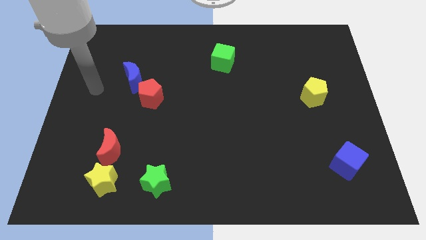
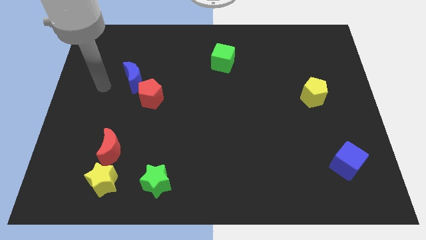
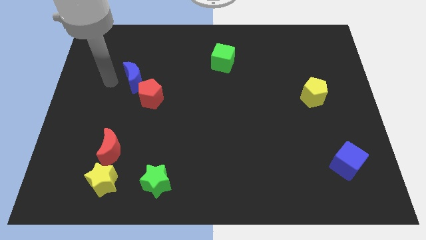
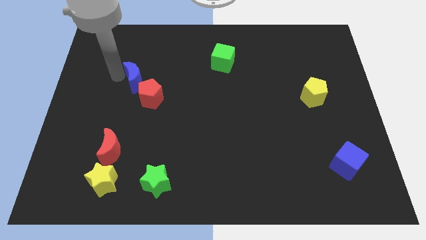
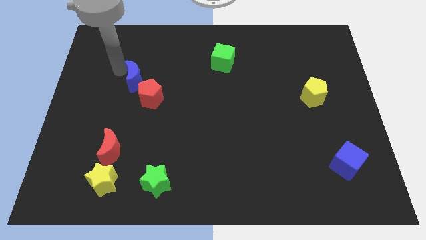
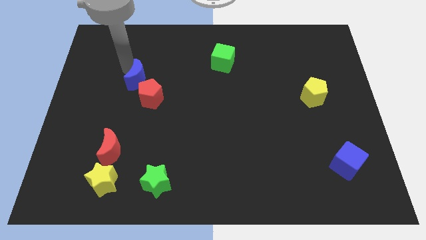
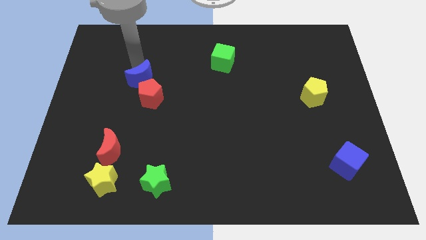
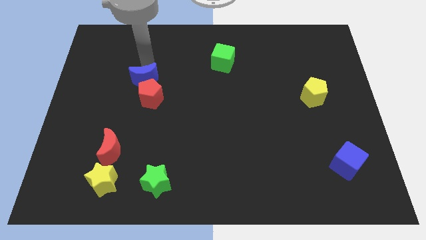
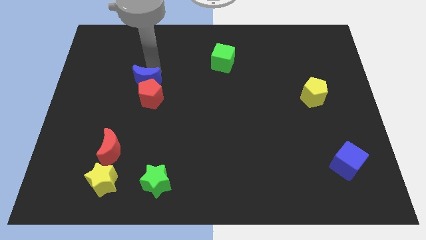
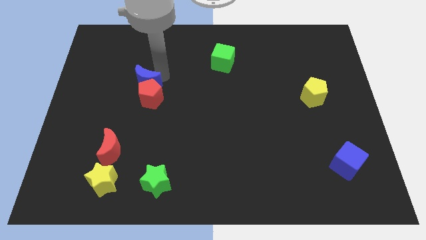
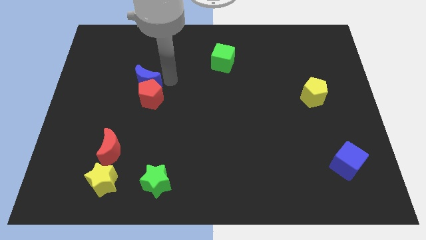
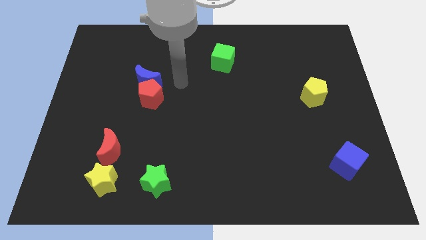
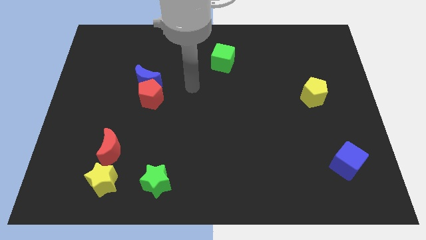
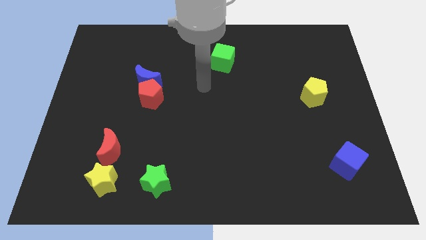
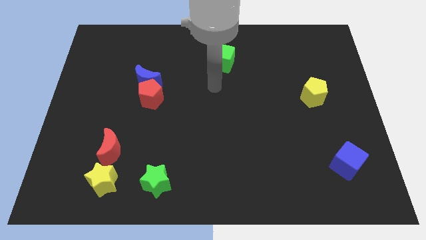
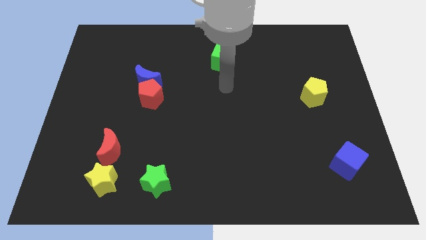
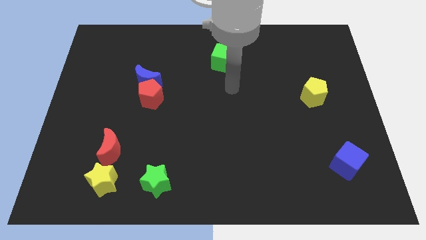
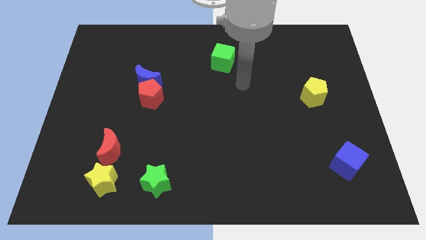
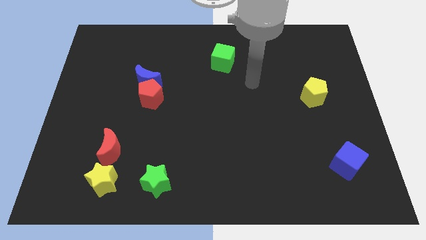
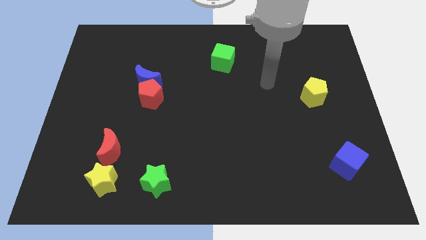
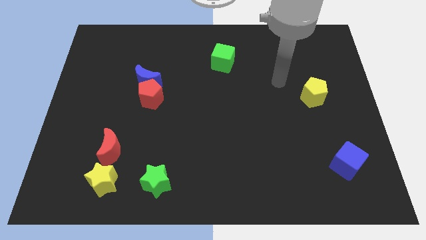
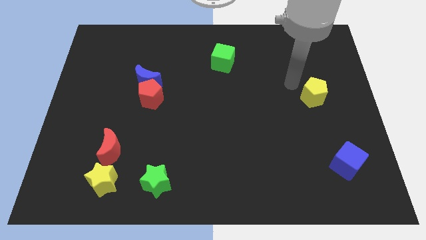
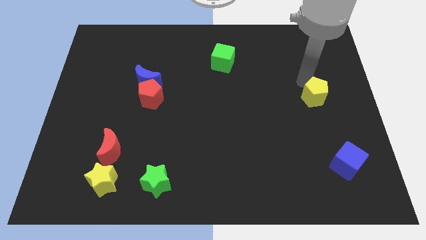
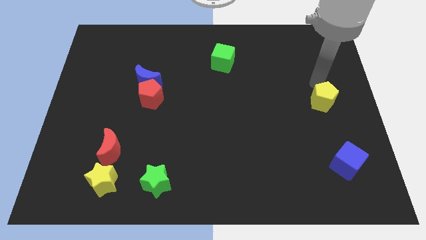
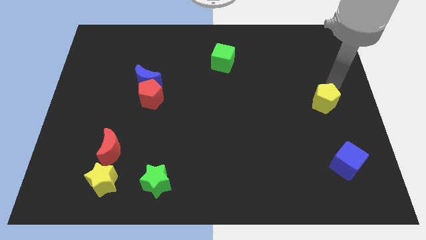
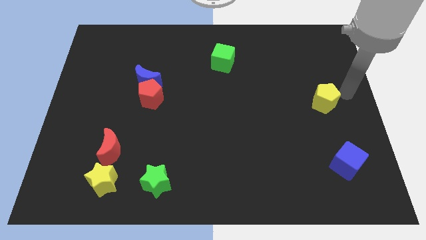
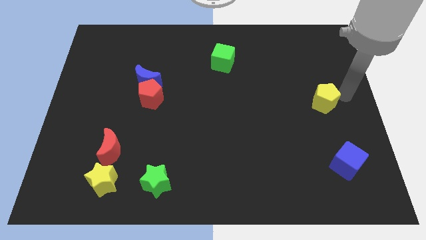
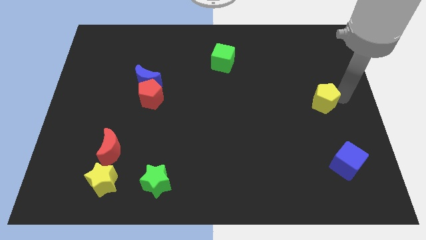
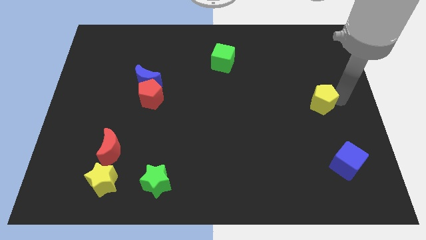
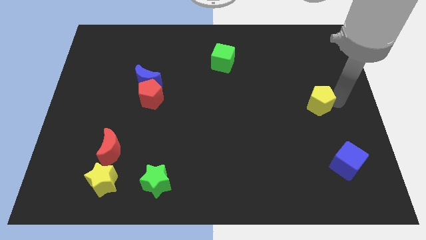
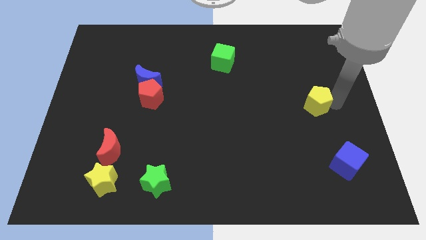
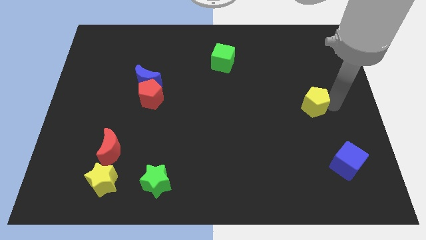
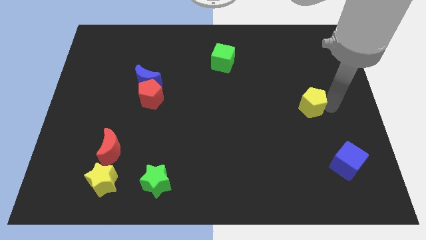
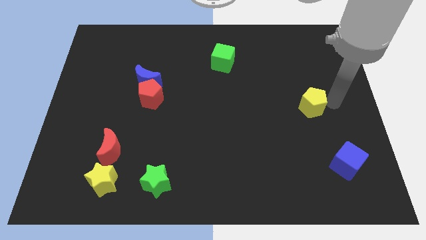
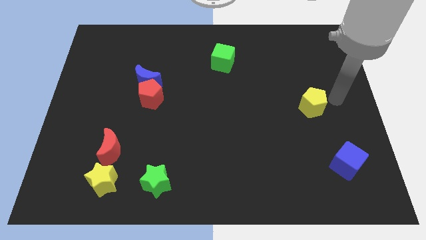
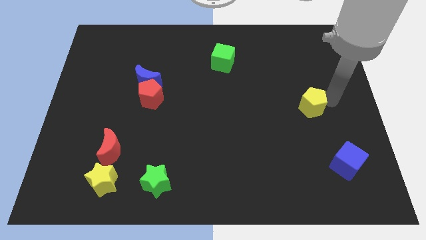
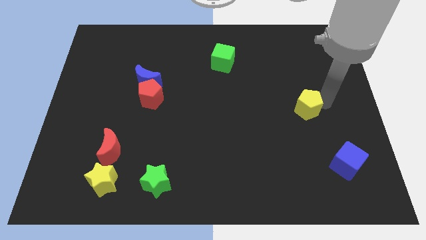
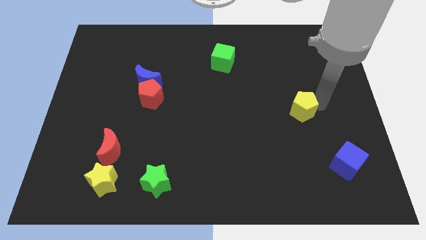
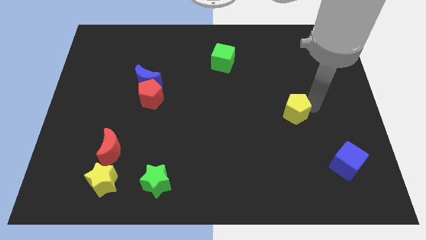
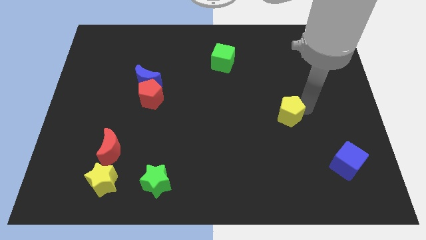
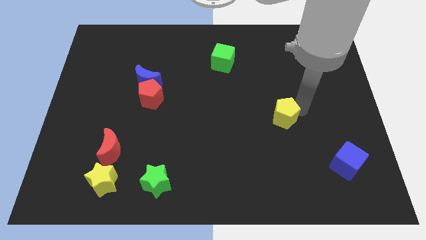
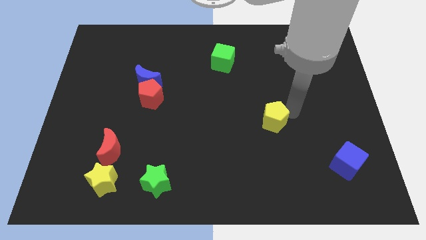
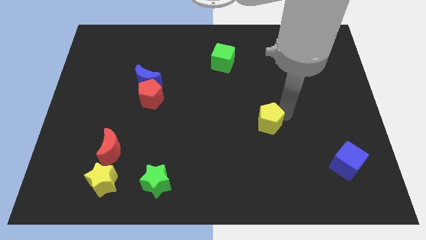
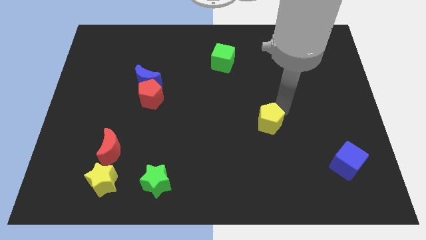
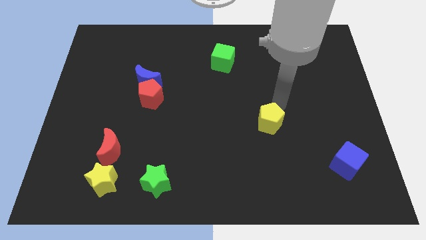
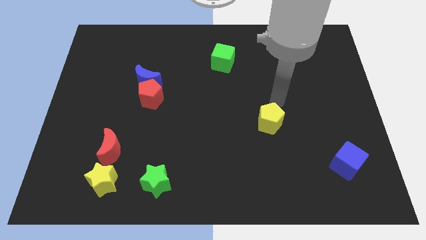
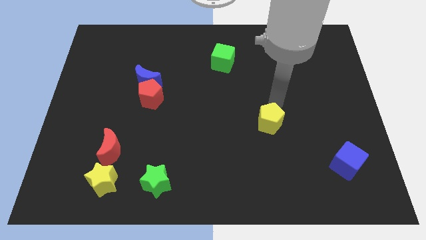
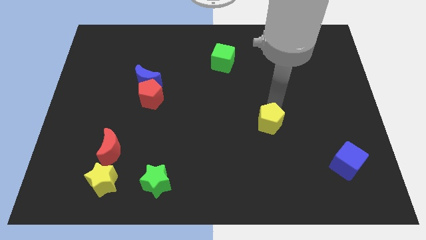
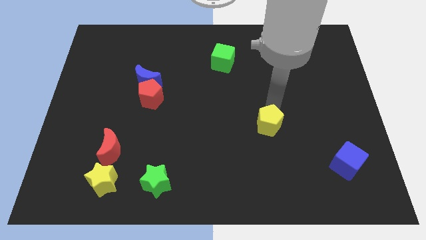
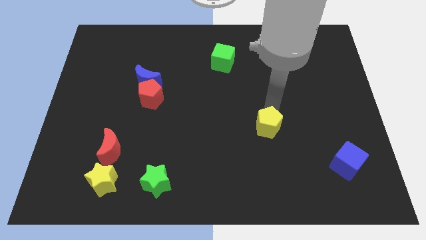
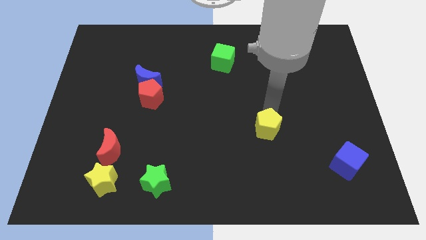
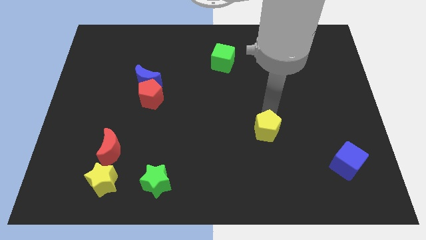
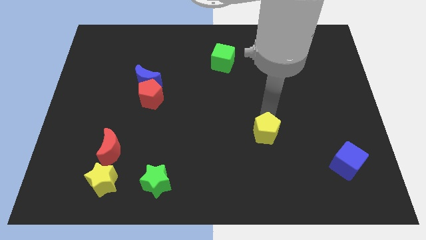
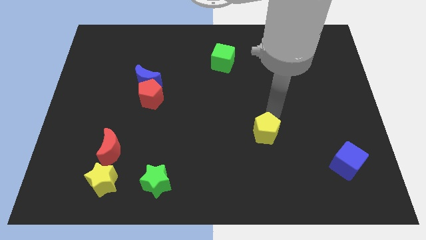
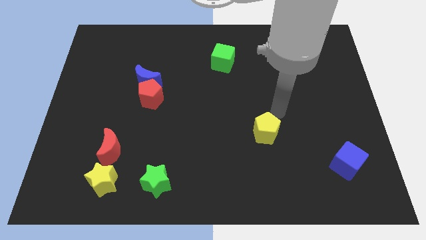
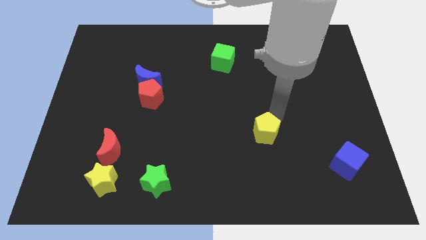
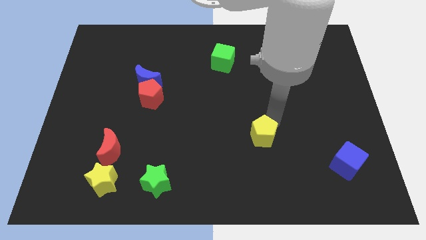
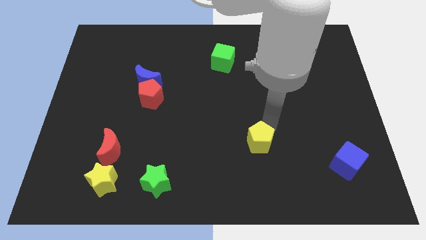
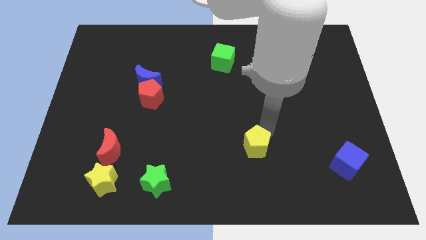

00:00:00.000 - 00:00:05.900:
move the yellow pentagon downwards and then left

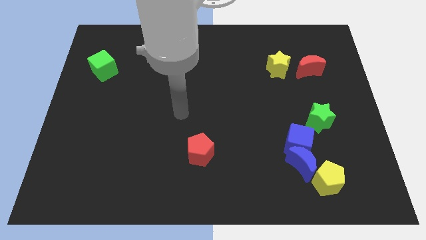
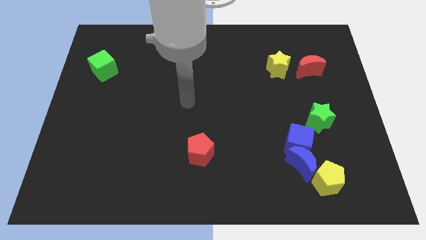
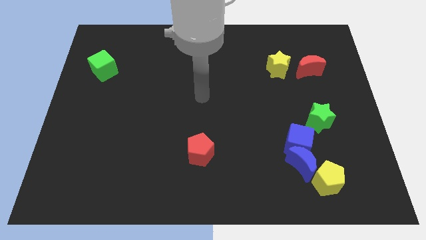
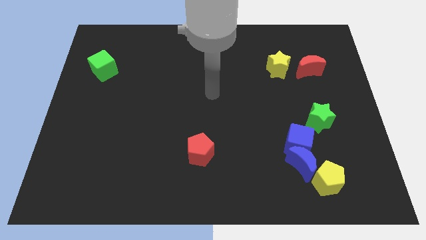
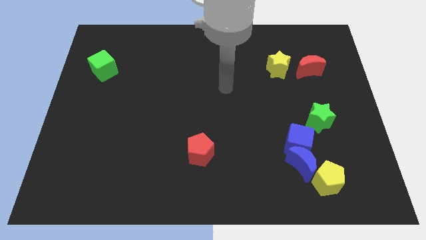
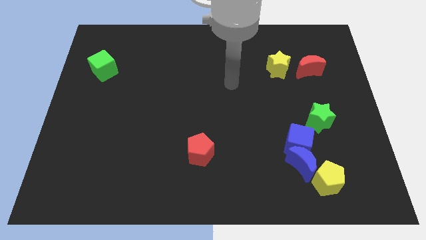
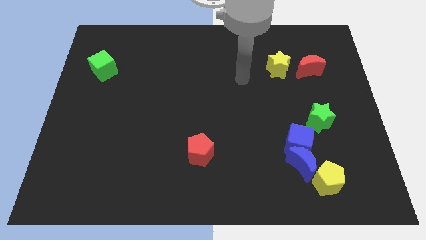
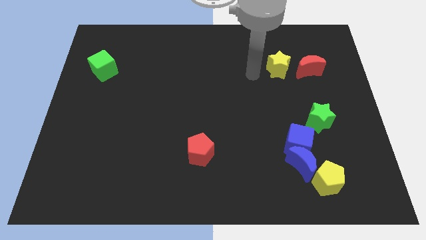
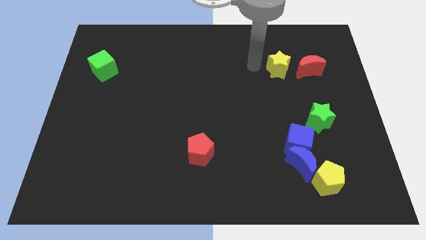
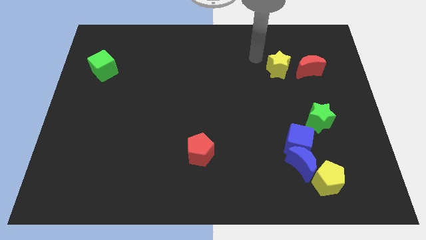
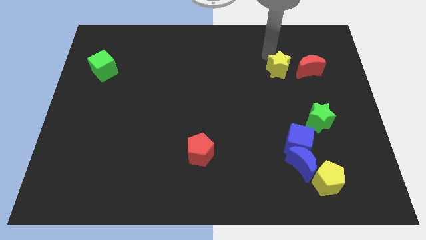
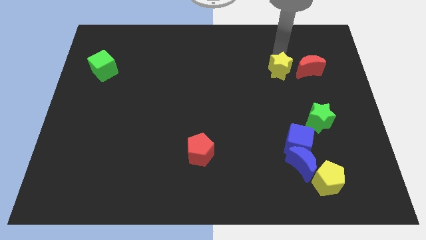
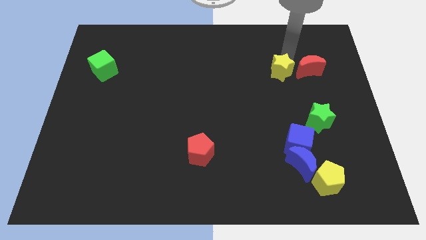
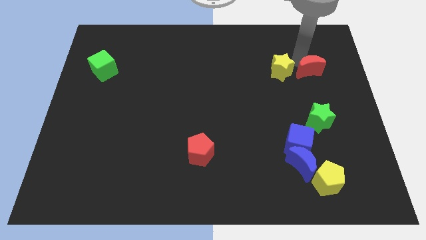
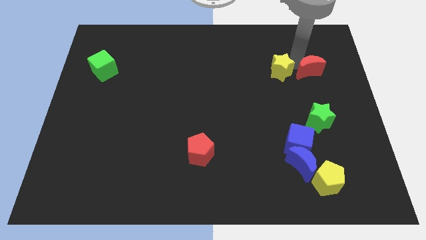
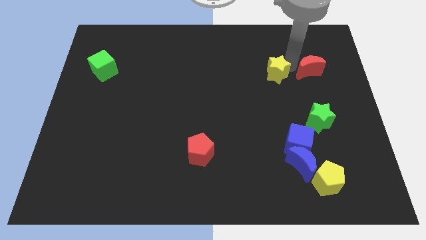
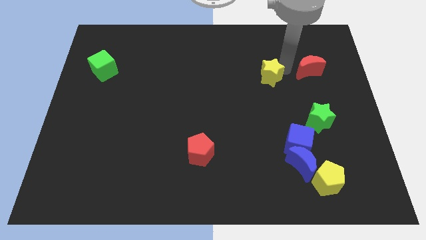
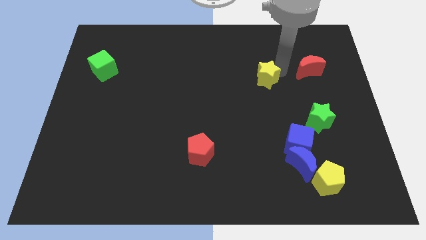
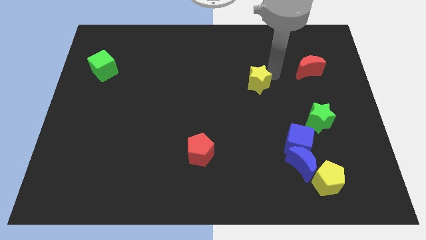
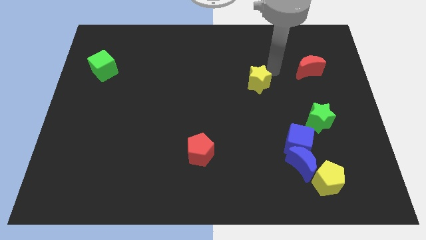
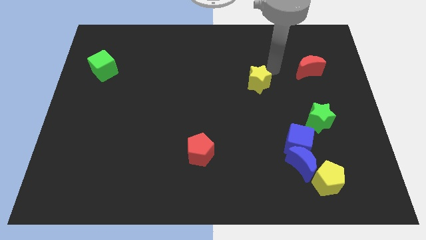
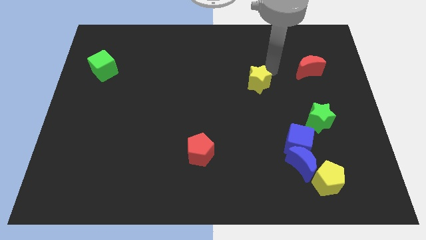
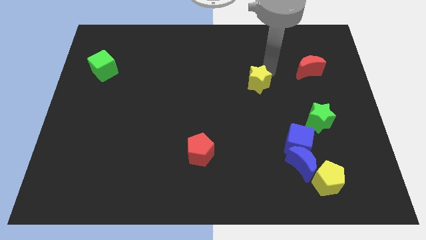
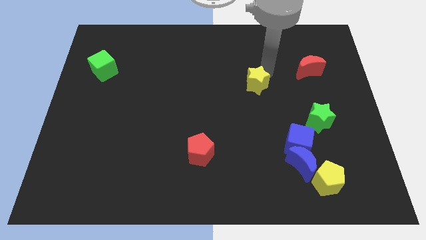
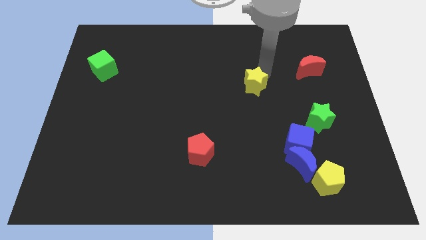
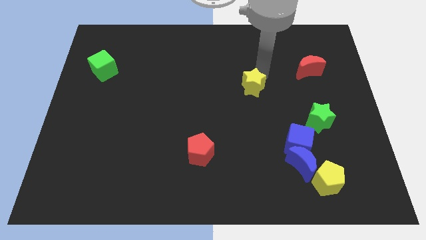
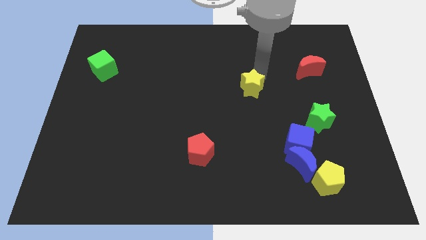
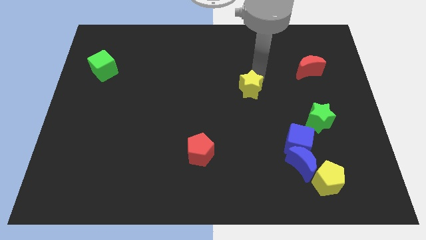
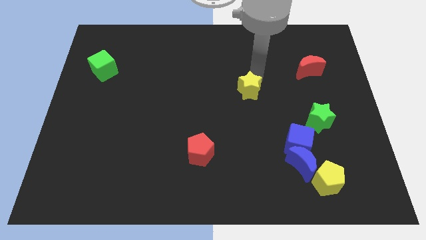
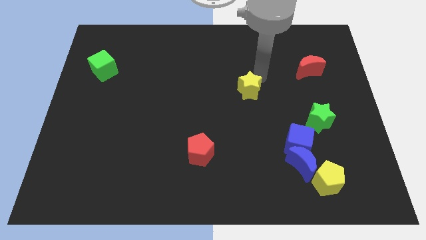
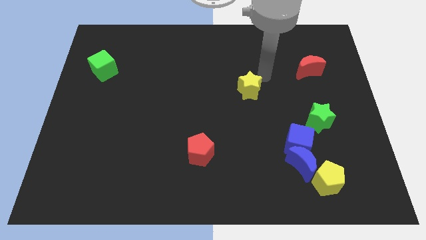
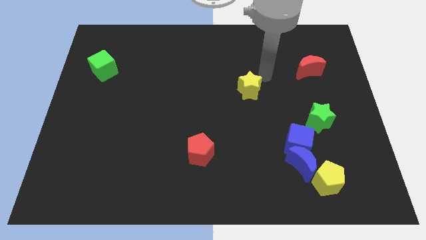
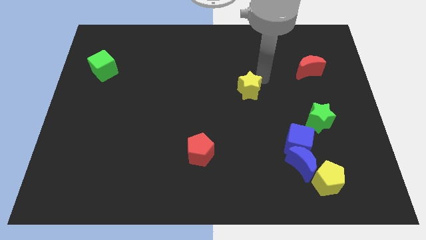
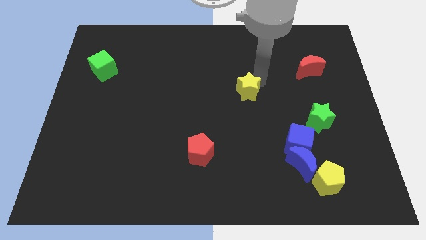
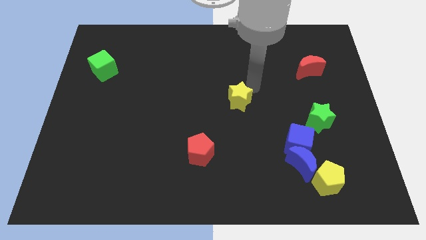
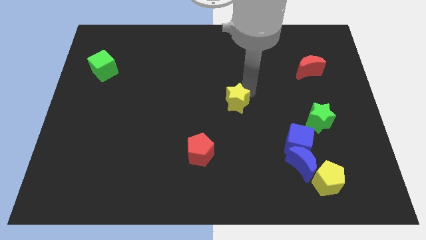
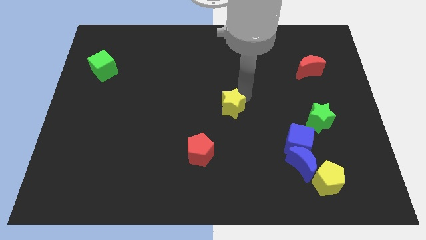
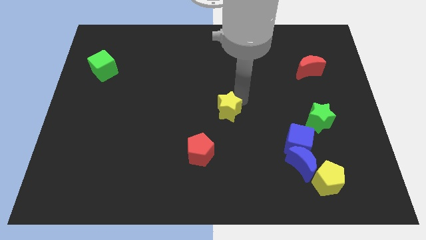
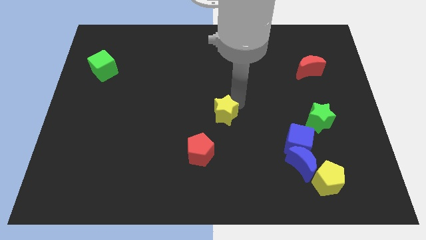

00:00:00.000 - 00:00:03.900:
slide the yellow star downwards and then left
